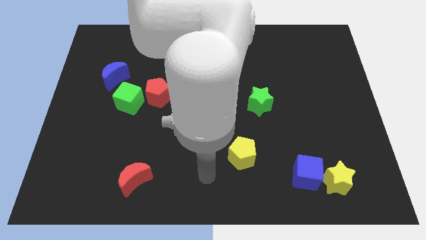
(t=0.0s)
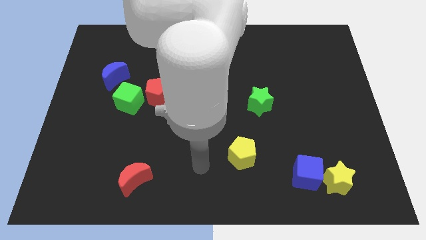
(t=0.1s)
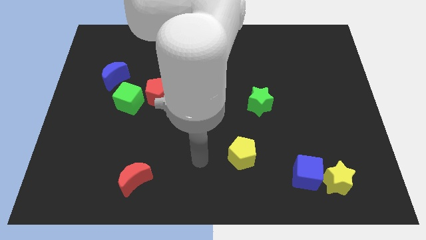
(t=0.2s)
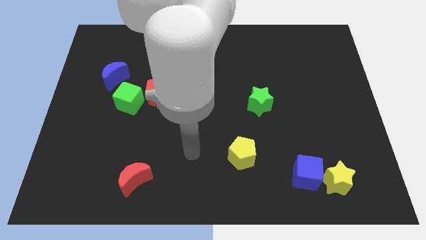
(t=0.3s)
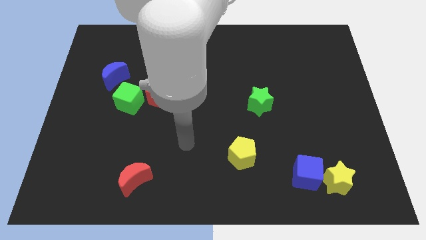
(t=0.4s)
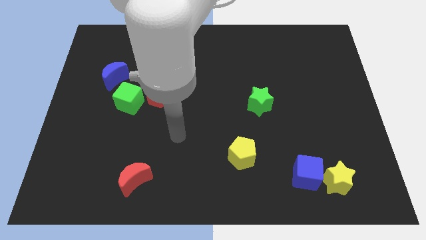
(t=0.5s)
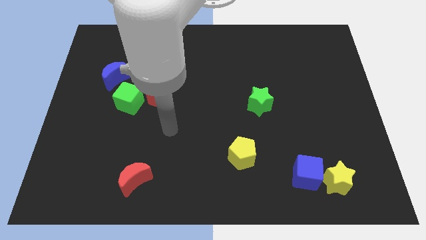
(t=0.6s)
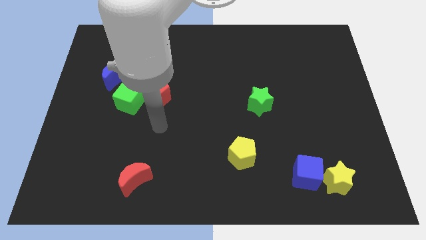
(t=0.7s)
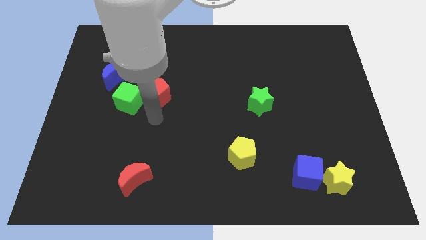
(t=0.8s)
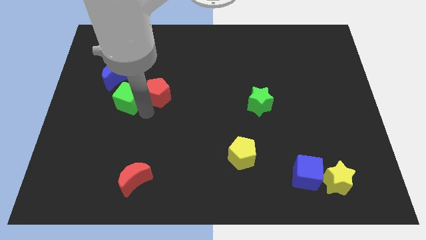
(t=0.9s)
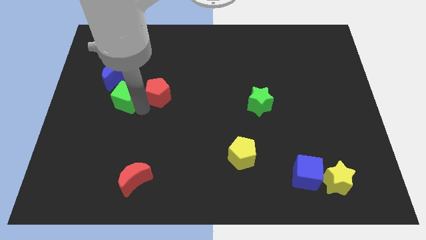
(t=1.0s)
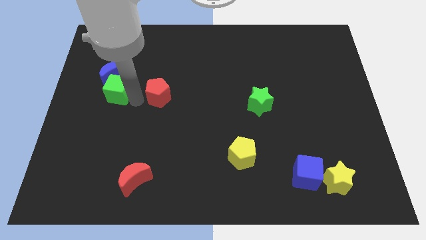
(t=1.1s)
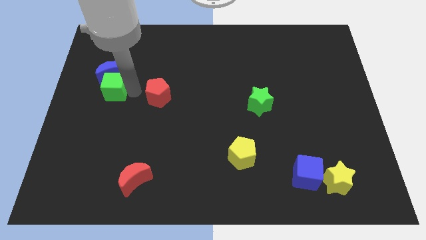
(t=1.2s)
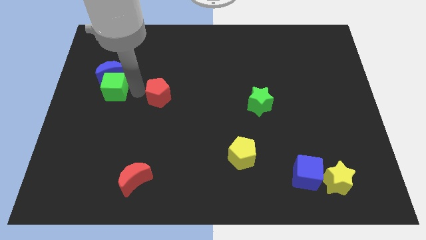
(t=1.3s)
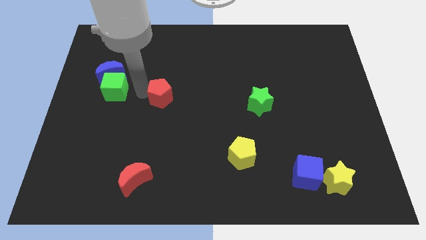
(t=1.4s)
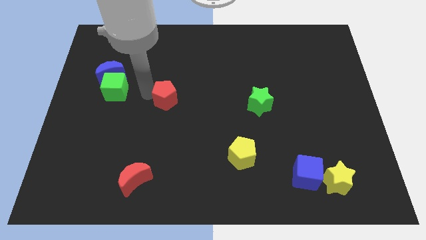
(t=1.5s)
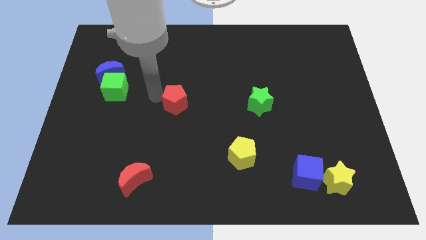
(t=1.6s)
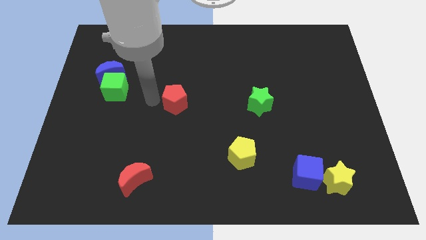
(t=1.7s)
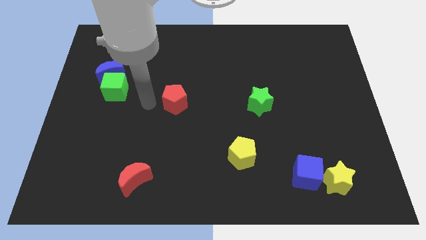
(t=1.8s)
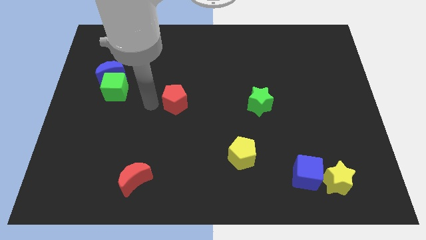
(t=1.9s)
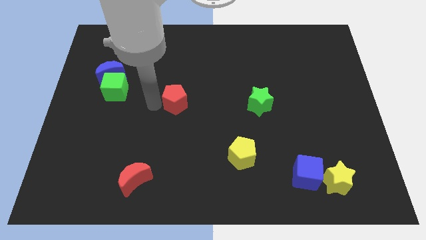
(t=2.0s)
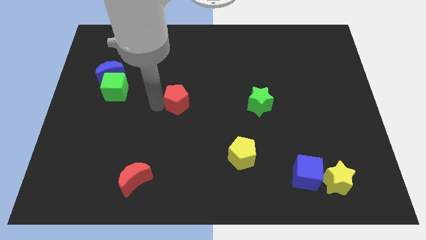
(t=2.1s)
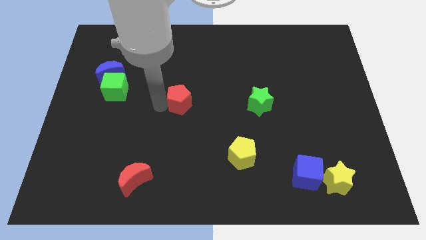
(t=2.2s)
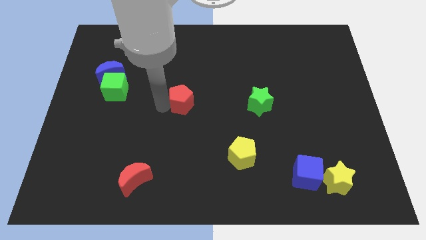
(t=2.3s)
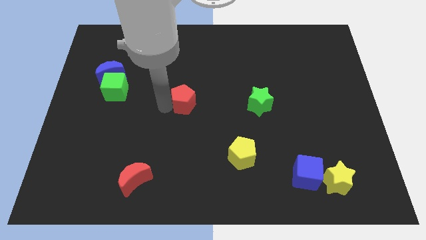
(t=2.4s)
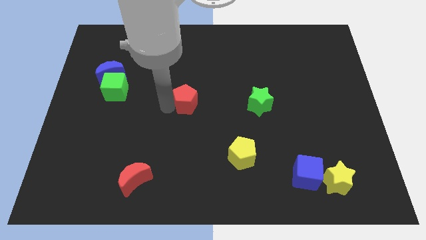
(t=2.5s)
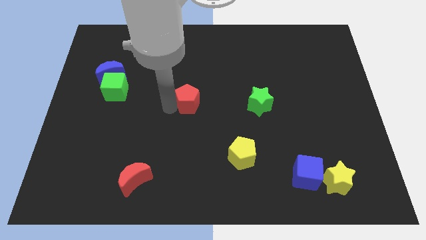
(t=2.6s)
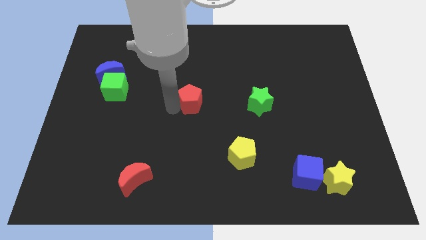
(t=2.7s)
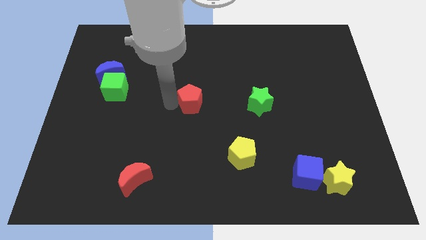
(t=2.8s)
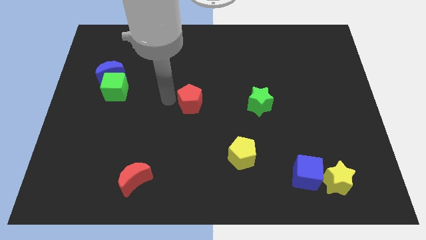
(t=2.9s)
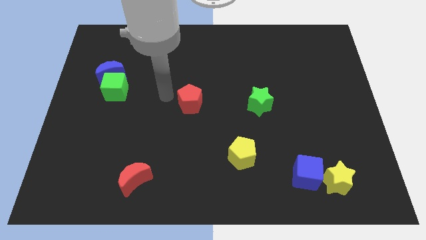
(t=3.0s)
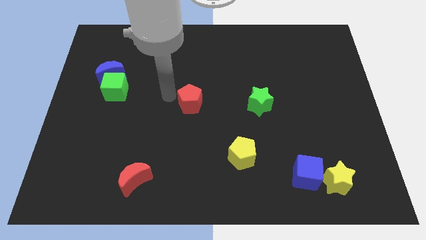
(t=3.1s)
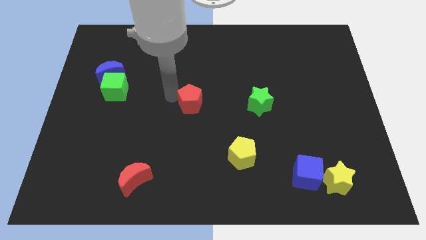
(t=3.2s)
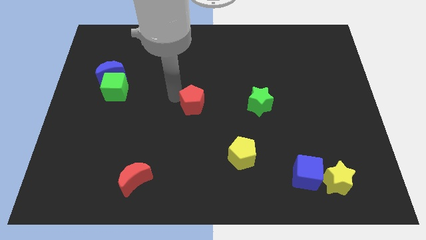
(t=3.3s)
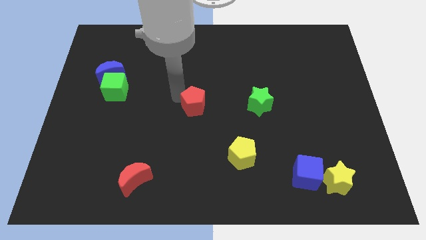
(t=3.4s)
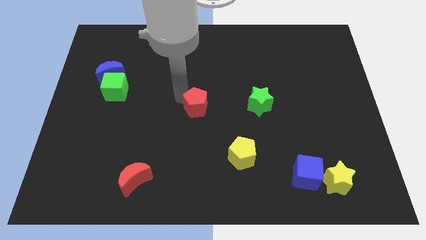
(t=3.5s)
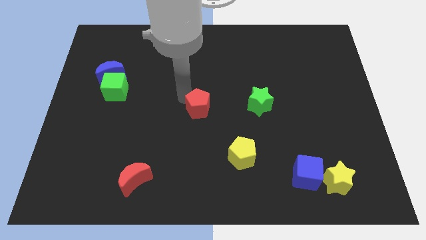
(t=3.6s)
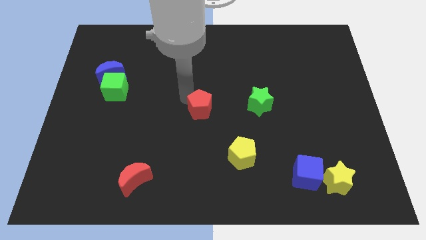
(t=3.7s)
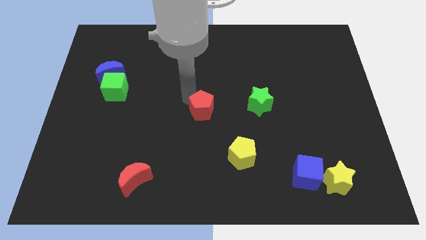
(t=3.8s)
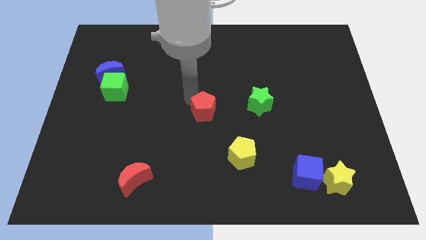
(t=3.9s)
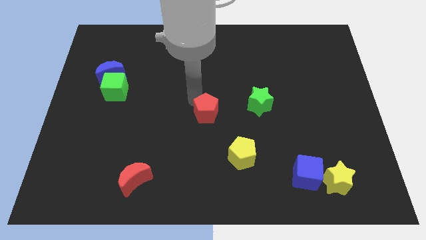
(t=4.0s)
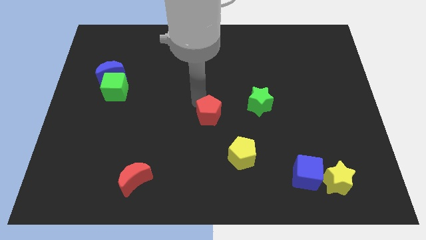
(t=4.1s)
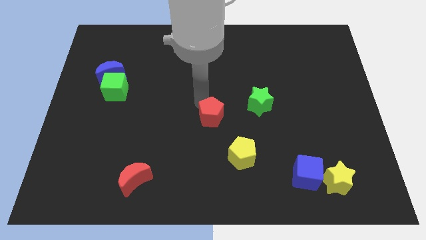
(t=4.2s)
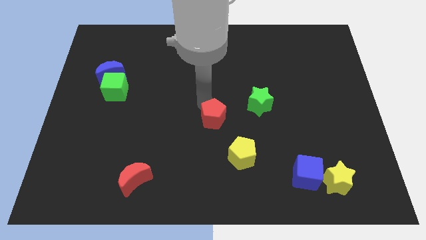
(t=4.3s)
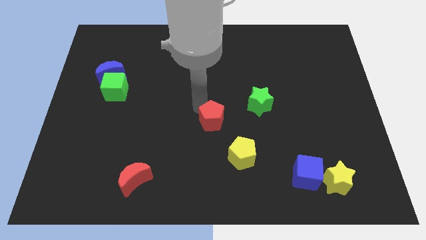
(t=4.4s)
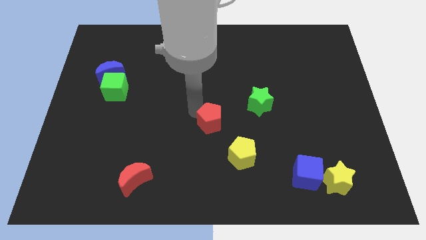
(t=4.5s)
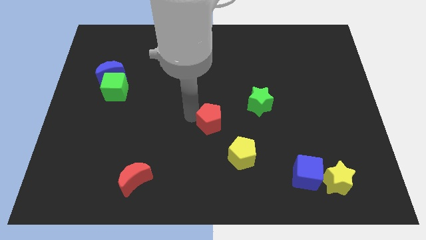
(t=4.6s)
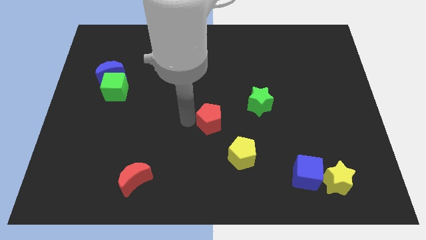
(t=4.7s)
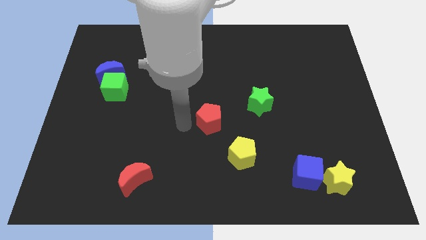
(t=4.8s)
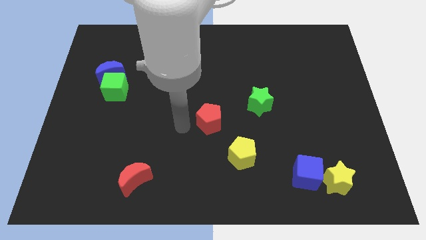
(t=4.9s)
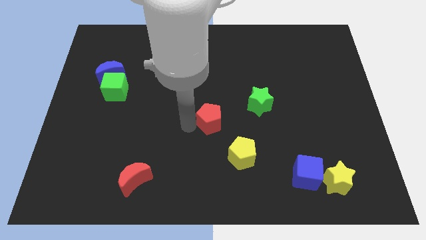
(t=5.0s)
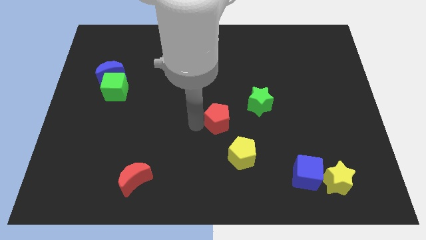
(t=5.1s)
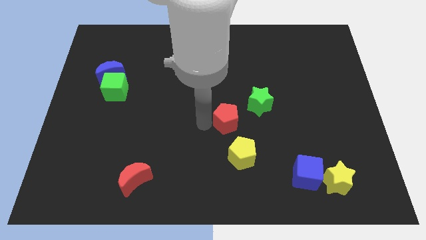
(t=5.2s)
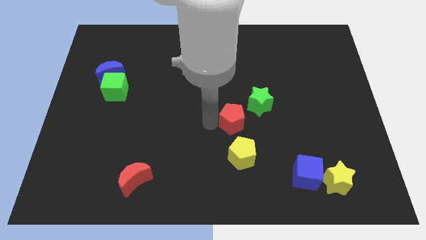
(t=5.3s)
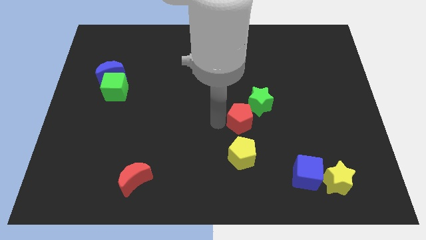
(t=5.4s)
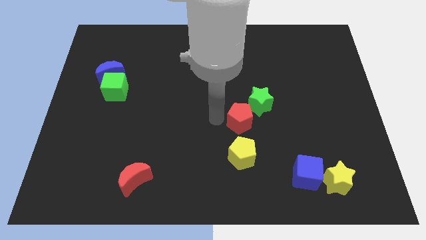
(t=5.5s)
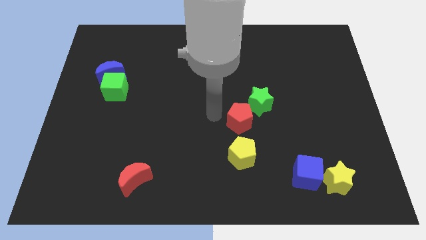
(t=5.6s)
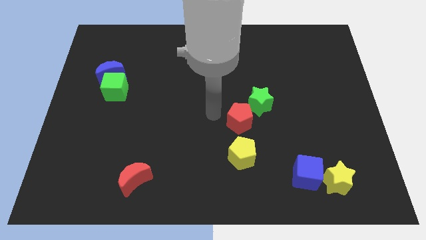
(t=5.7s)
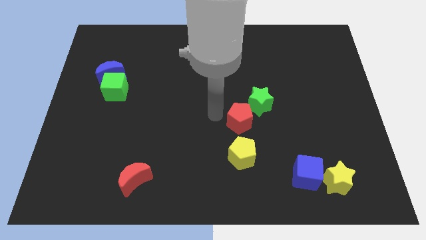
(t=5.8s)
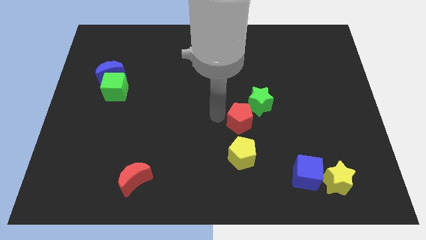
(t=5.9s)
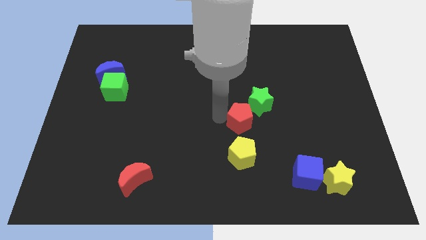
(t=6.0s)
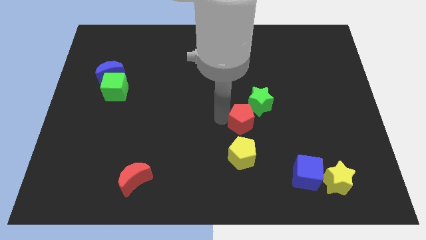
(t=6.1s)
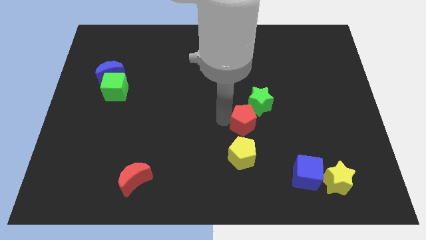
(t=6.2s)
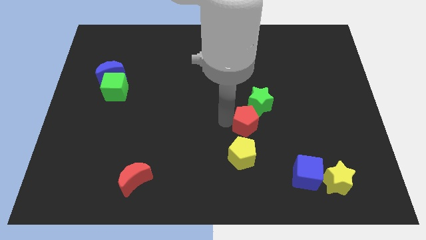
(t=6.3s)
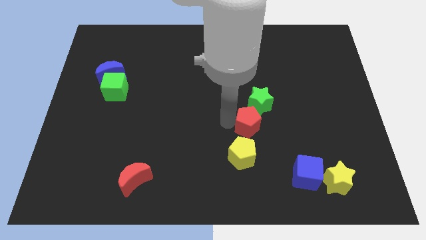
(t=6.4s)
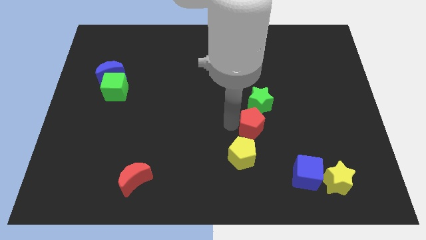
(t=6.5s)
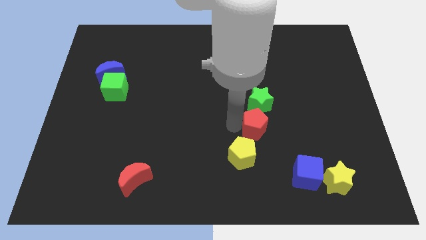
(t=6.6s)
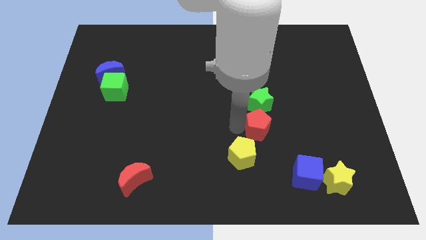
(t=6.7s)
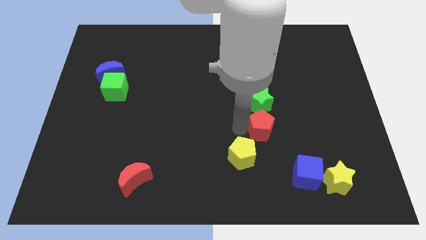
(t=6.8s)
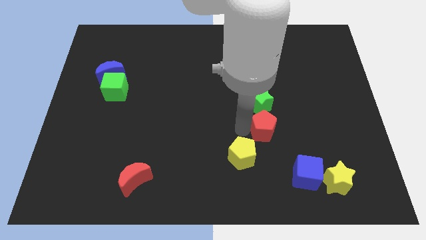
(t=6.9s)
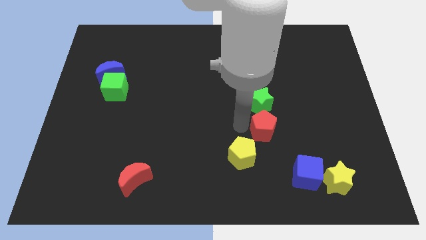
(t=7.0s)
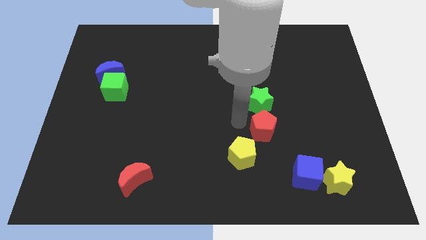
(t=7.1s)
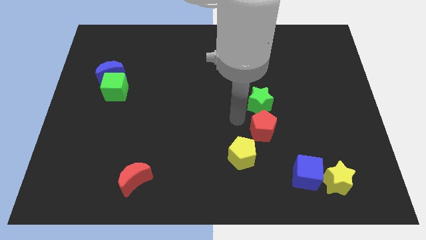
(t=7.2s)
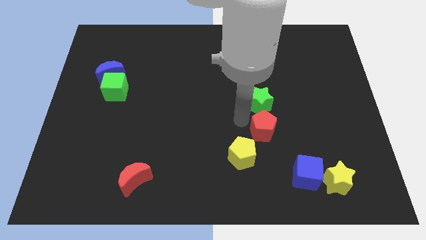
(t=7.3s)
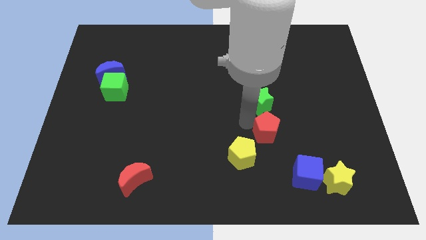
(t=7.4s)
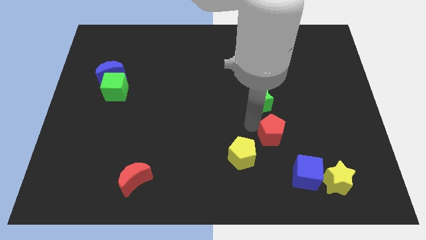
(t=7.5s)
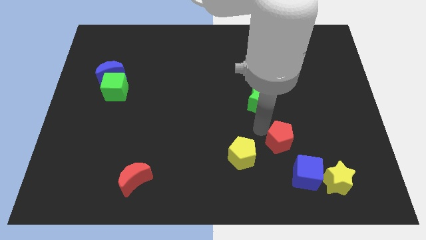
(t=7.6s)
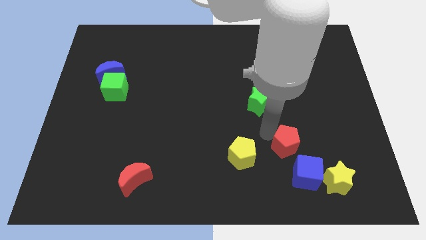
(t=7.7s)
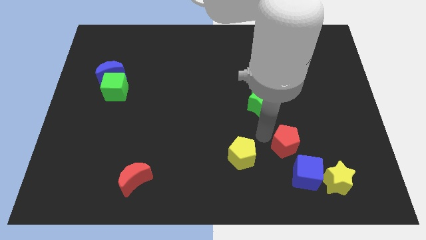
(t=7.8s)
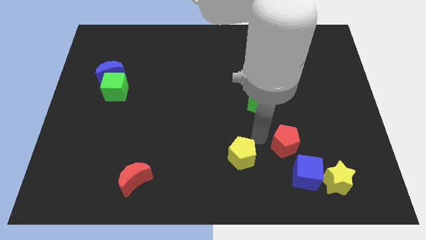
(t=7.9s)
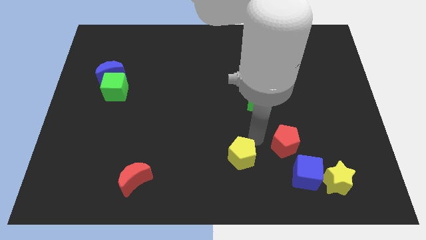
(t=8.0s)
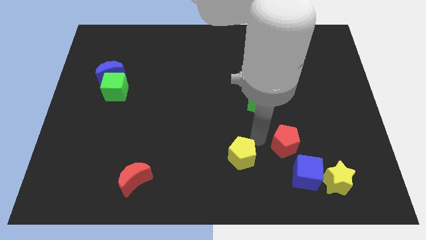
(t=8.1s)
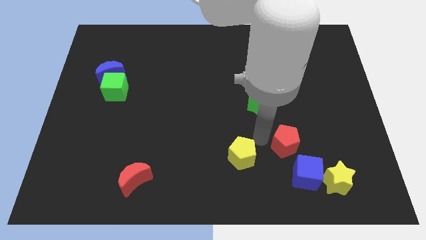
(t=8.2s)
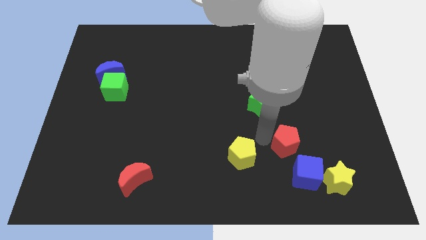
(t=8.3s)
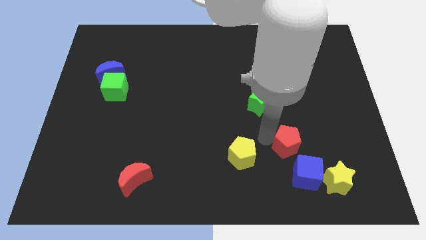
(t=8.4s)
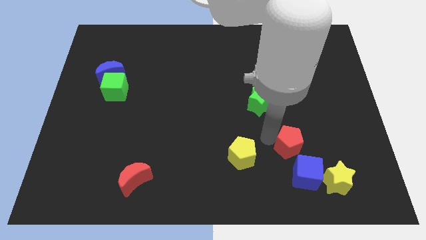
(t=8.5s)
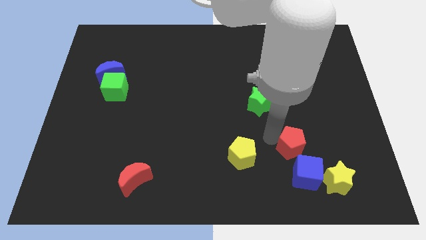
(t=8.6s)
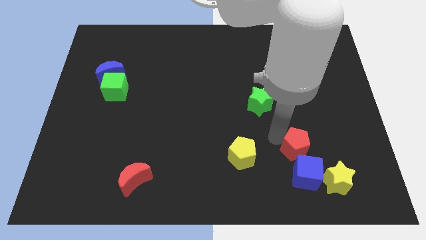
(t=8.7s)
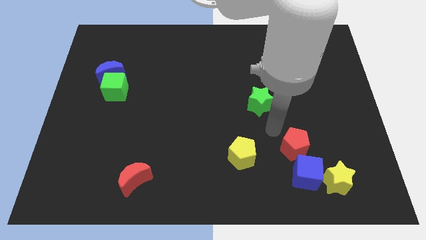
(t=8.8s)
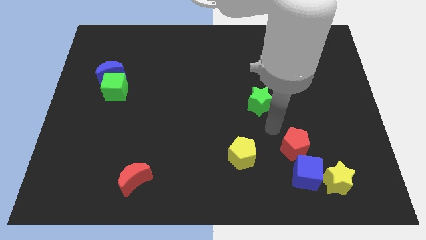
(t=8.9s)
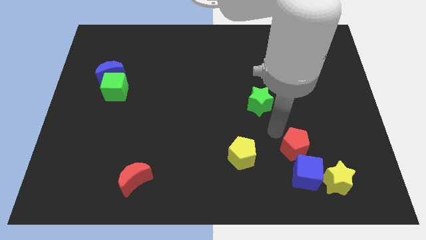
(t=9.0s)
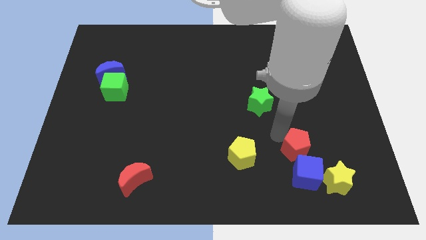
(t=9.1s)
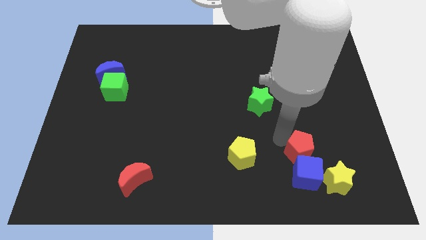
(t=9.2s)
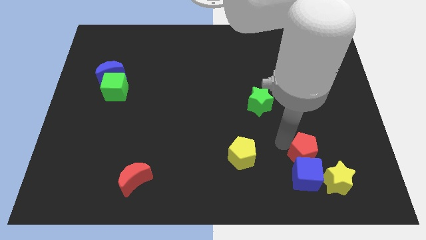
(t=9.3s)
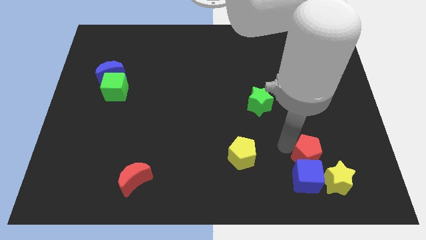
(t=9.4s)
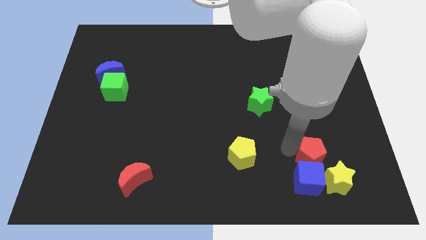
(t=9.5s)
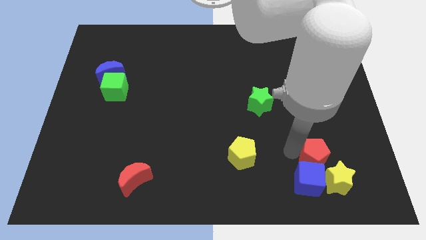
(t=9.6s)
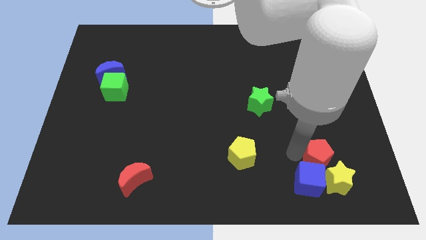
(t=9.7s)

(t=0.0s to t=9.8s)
move the red pentagon to the yellow star
